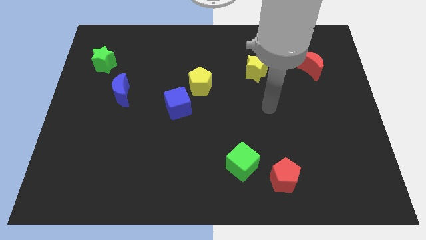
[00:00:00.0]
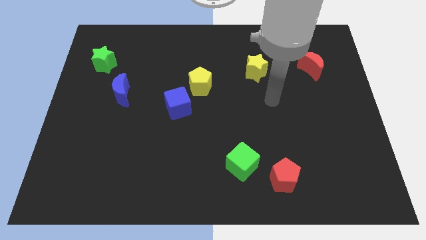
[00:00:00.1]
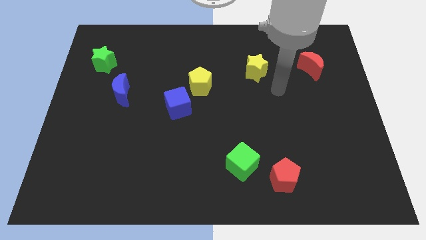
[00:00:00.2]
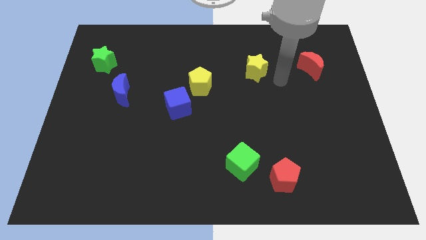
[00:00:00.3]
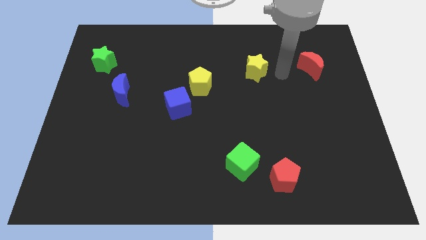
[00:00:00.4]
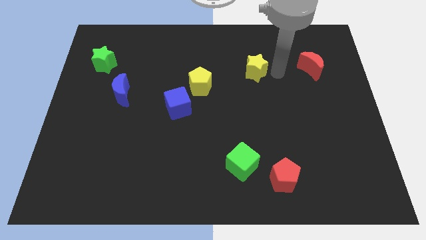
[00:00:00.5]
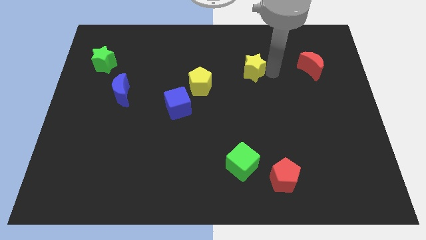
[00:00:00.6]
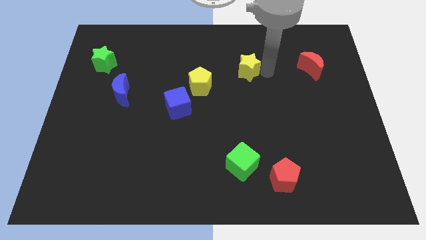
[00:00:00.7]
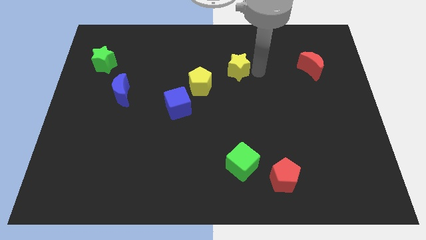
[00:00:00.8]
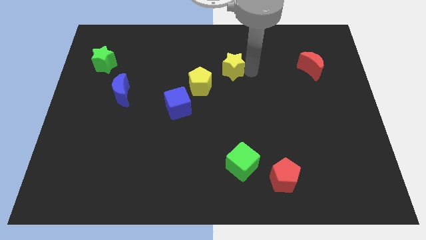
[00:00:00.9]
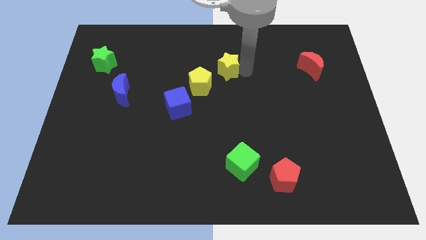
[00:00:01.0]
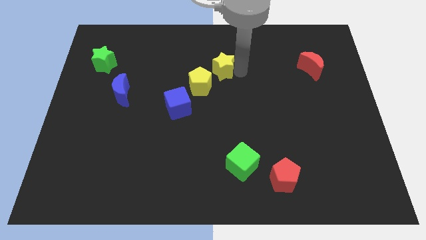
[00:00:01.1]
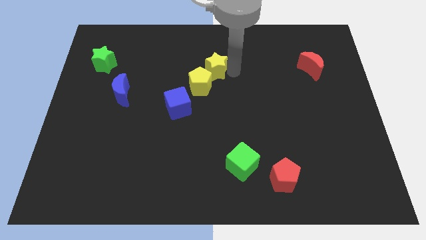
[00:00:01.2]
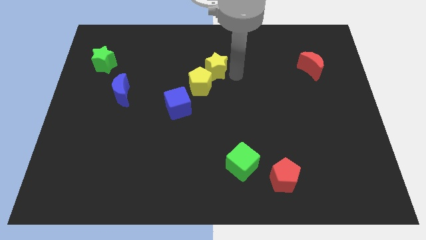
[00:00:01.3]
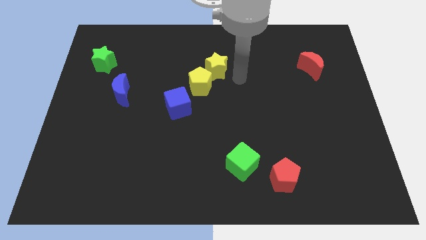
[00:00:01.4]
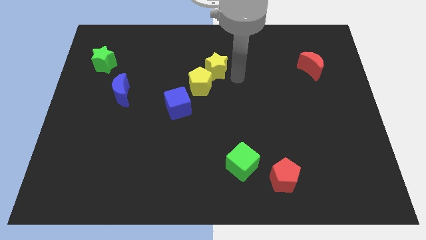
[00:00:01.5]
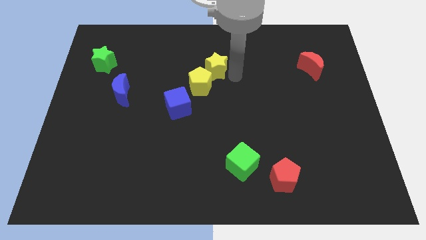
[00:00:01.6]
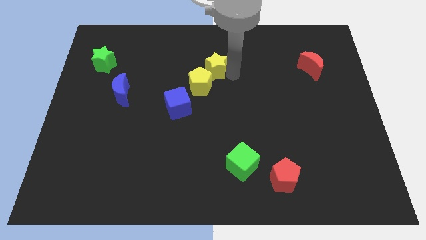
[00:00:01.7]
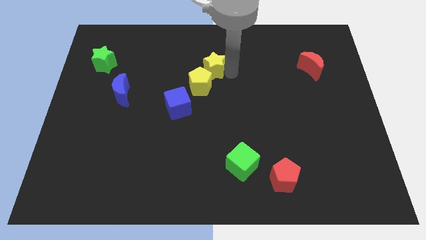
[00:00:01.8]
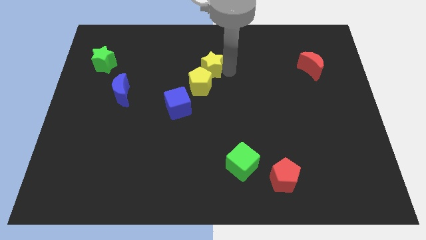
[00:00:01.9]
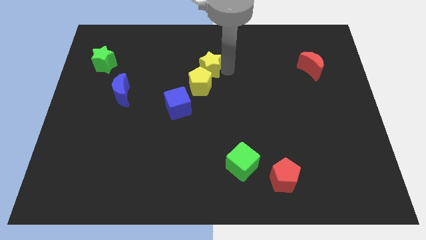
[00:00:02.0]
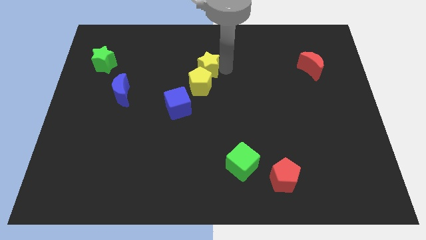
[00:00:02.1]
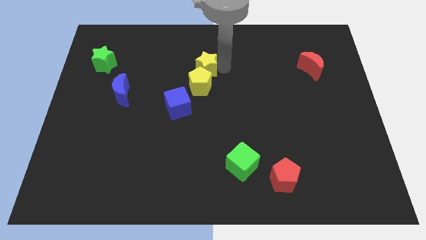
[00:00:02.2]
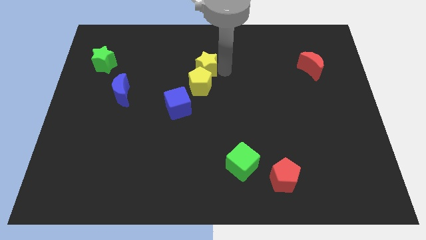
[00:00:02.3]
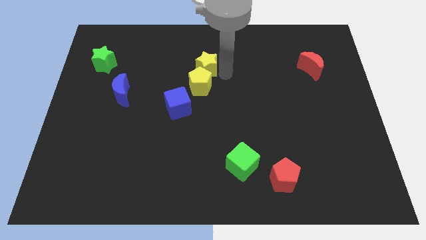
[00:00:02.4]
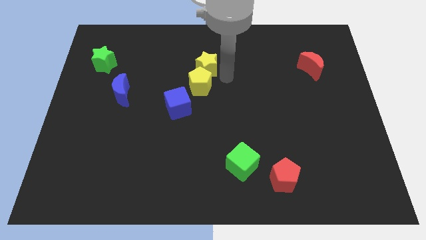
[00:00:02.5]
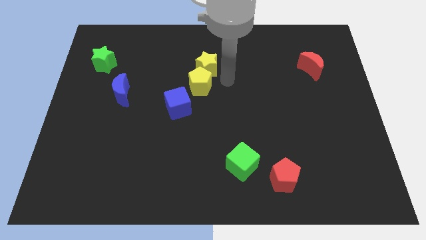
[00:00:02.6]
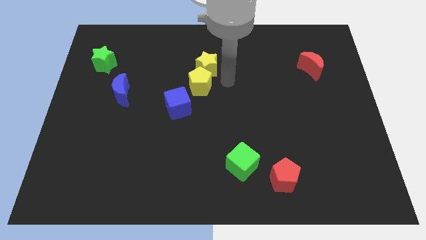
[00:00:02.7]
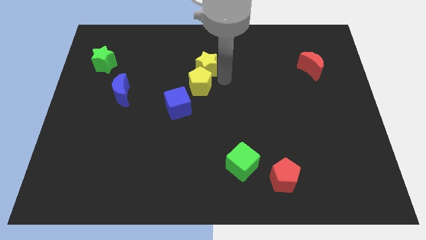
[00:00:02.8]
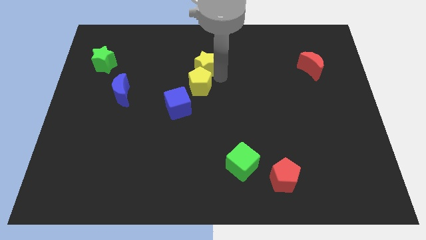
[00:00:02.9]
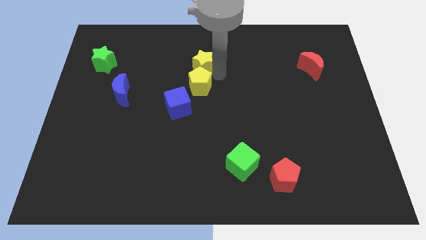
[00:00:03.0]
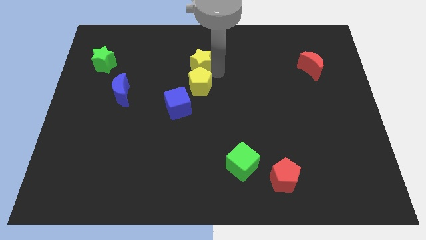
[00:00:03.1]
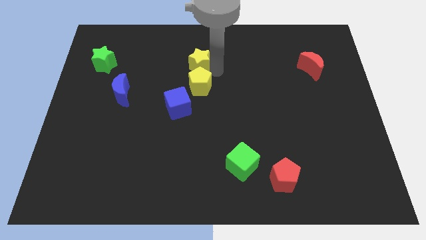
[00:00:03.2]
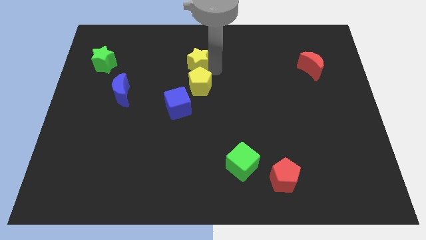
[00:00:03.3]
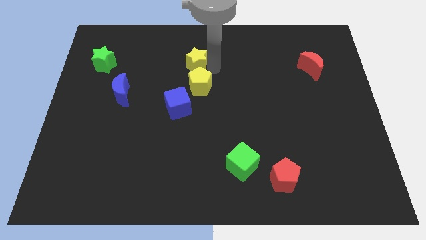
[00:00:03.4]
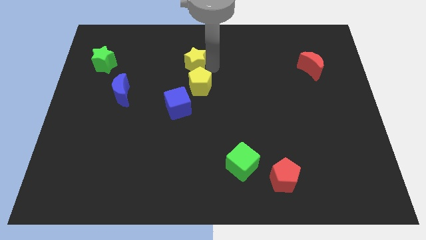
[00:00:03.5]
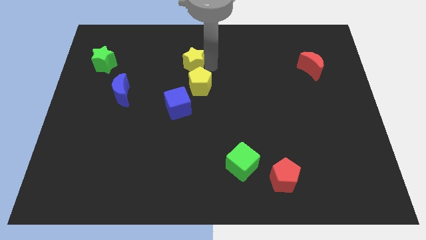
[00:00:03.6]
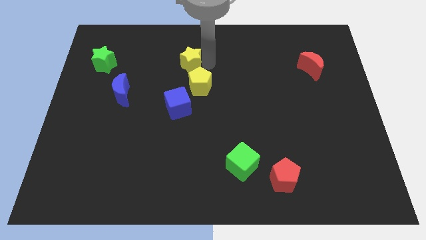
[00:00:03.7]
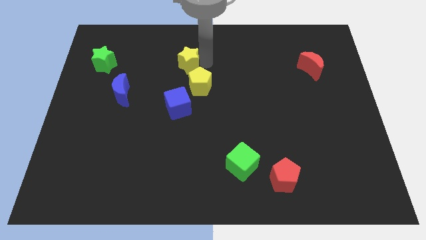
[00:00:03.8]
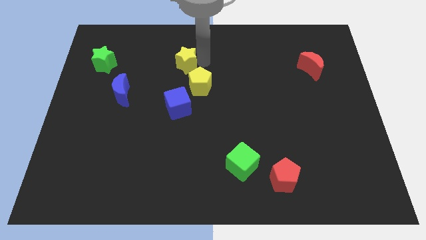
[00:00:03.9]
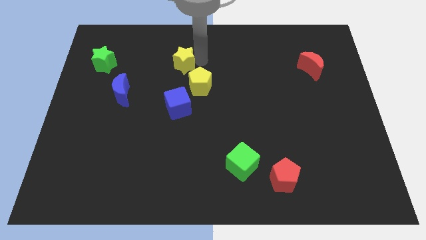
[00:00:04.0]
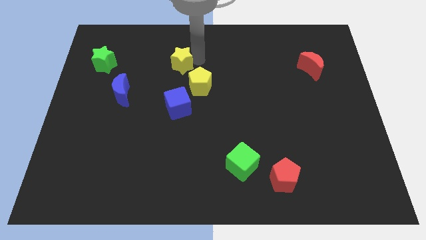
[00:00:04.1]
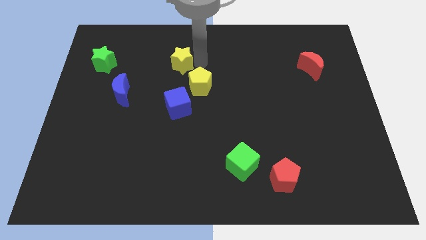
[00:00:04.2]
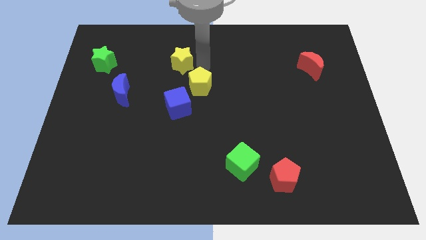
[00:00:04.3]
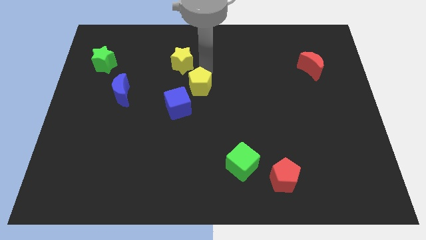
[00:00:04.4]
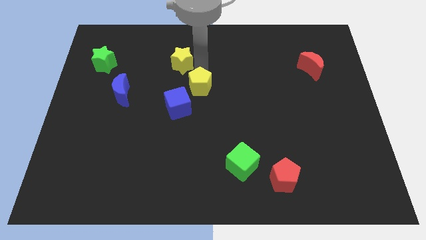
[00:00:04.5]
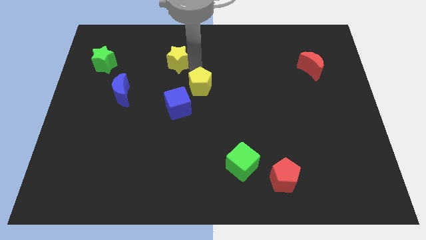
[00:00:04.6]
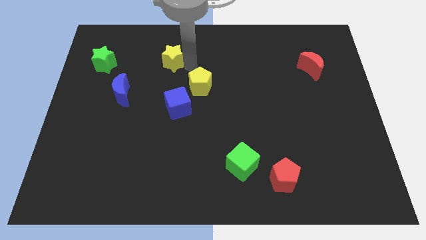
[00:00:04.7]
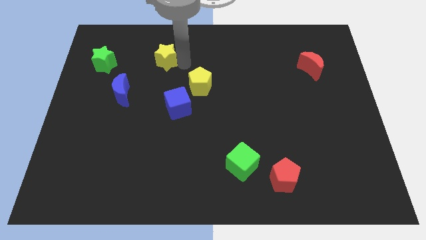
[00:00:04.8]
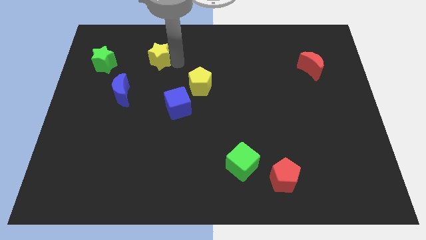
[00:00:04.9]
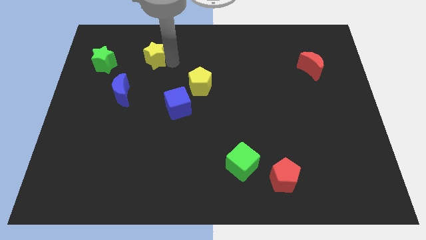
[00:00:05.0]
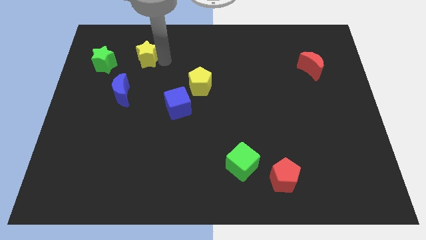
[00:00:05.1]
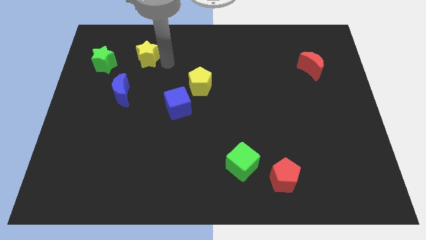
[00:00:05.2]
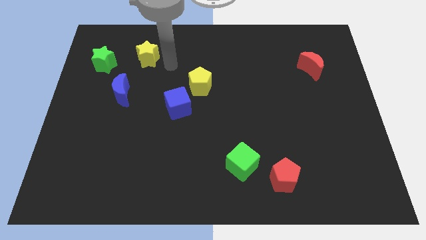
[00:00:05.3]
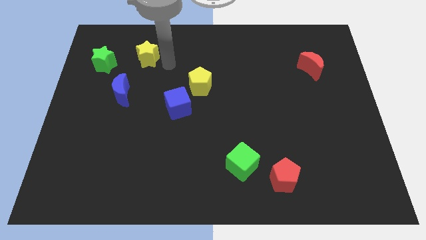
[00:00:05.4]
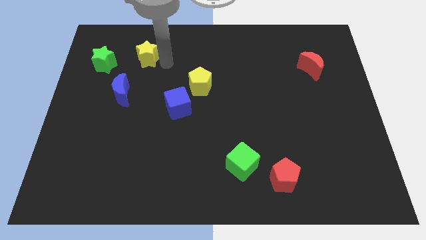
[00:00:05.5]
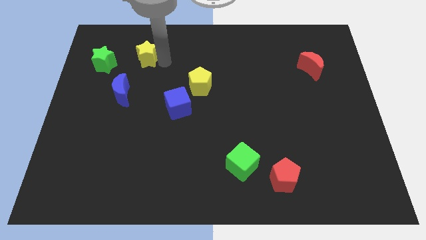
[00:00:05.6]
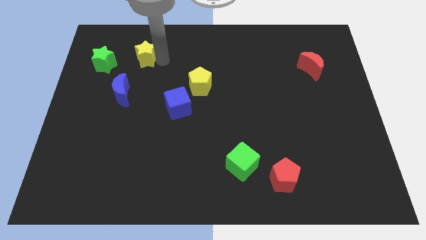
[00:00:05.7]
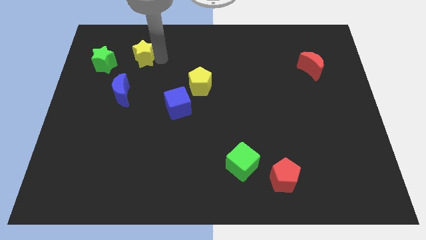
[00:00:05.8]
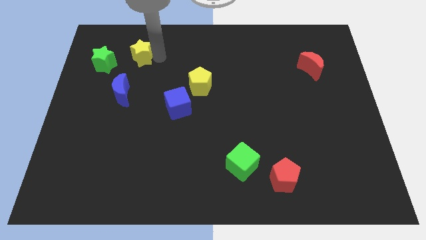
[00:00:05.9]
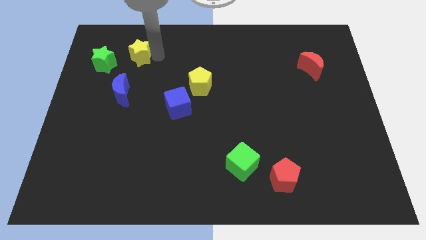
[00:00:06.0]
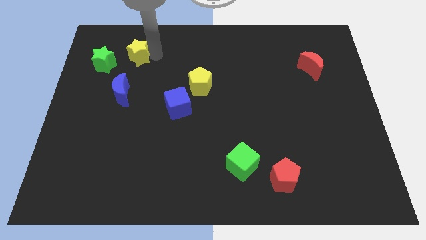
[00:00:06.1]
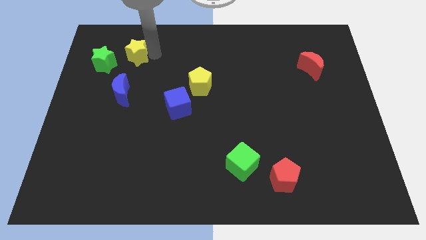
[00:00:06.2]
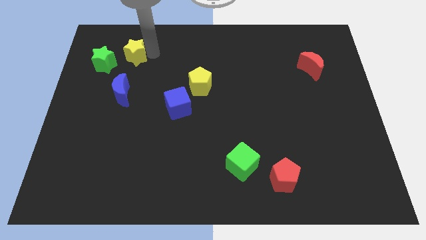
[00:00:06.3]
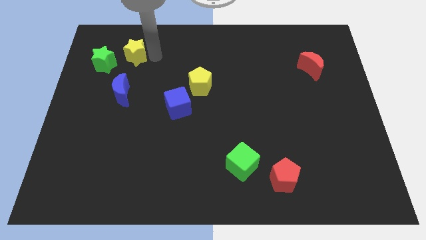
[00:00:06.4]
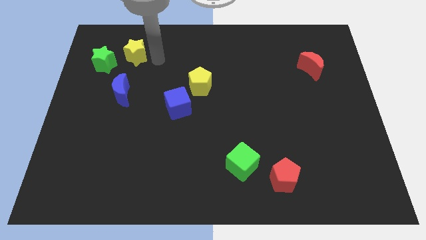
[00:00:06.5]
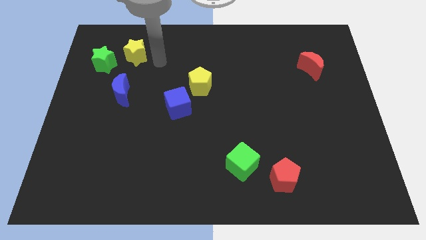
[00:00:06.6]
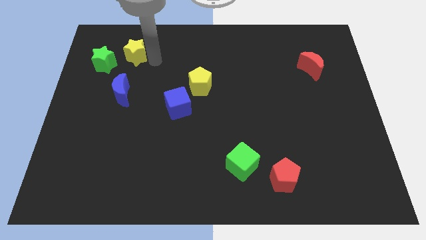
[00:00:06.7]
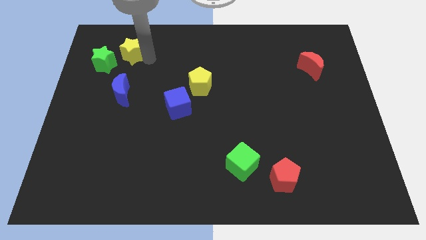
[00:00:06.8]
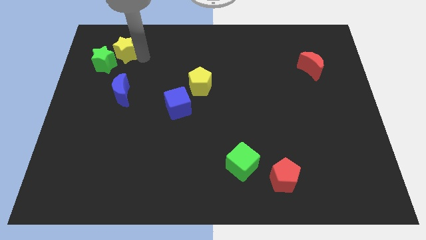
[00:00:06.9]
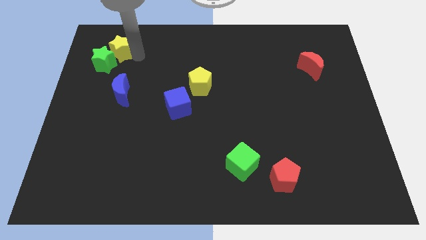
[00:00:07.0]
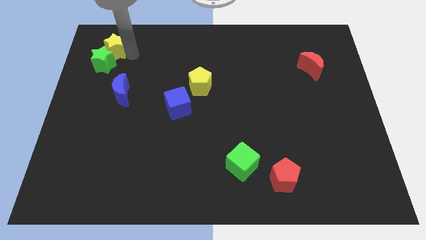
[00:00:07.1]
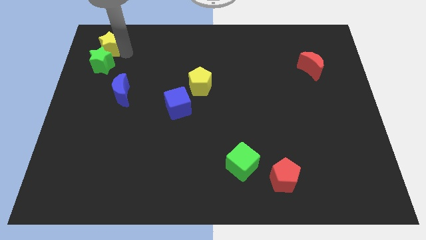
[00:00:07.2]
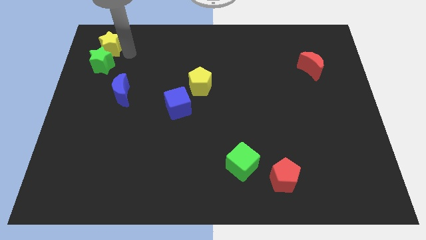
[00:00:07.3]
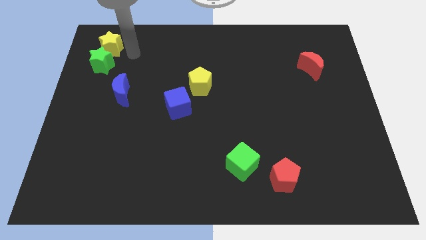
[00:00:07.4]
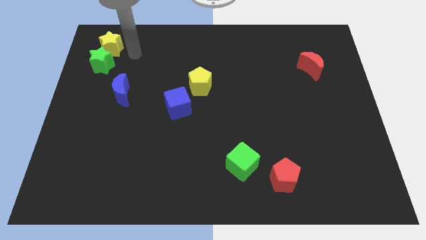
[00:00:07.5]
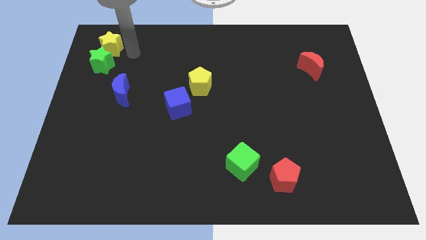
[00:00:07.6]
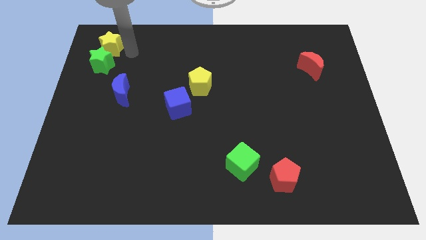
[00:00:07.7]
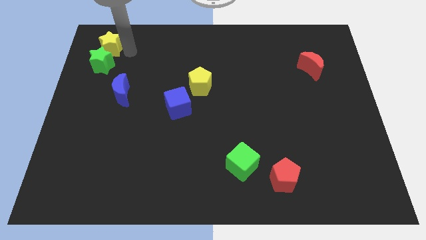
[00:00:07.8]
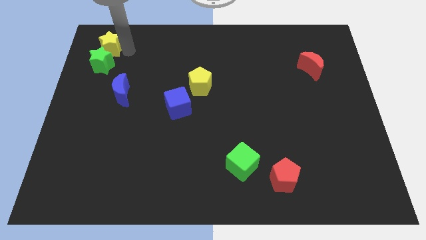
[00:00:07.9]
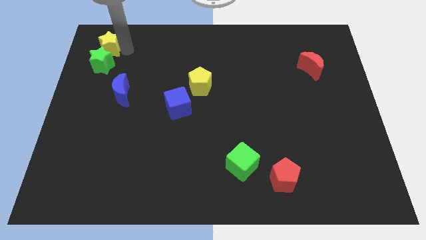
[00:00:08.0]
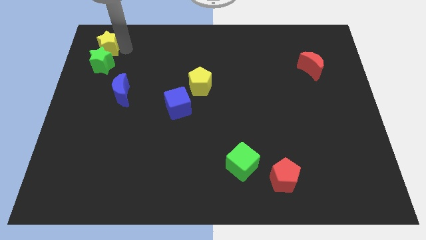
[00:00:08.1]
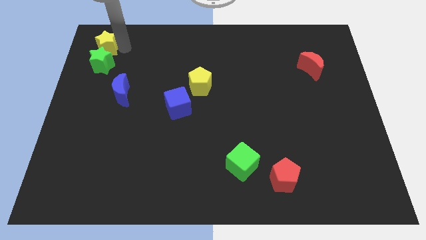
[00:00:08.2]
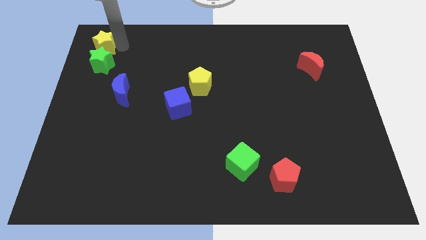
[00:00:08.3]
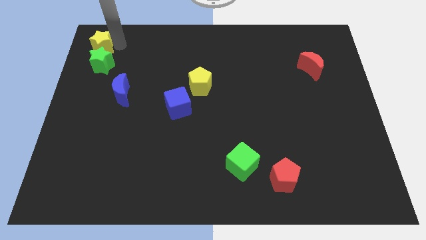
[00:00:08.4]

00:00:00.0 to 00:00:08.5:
push the yellow star to the top left of the board
